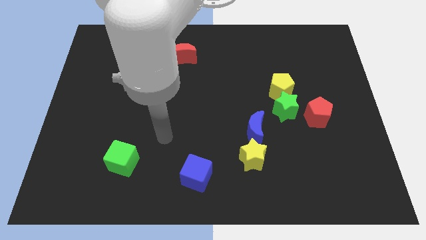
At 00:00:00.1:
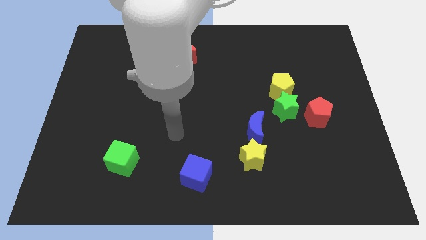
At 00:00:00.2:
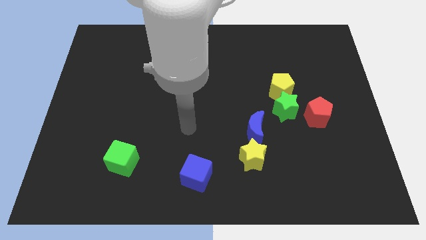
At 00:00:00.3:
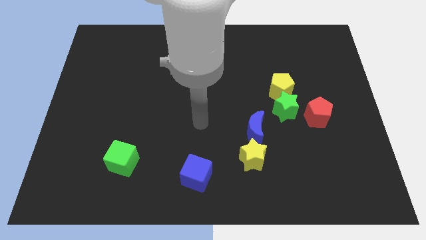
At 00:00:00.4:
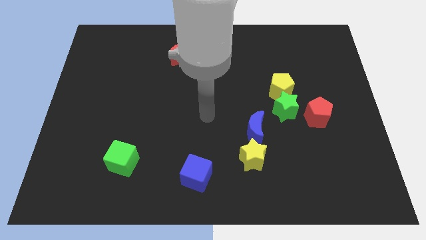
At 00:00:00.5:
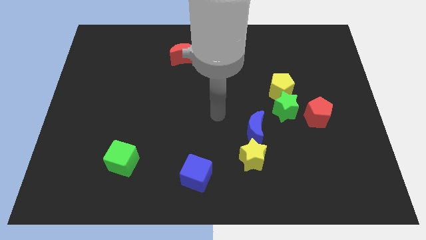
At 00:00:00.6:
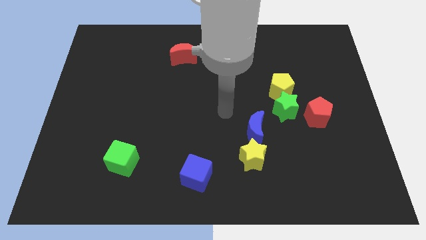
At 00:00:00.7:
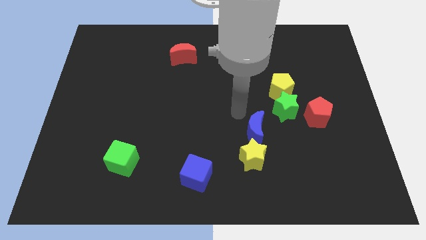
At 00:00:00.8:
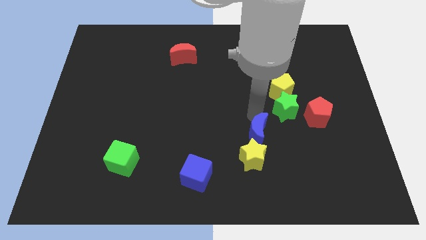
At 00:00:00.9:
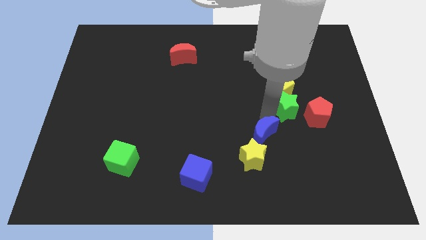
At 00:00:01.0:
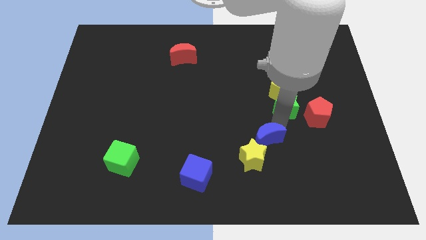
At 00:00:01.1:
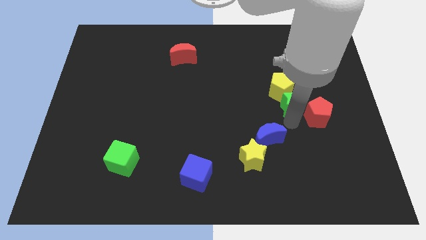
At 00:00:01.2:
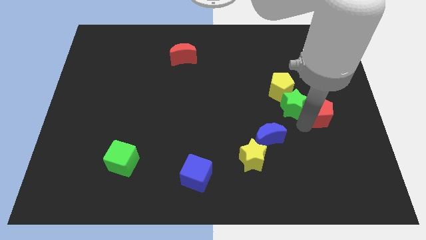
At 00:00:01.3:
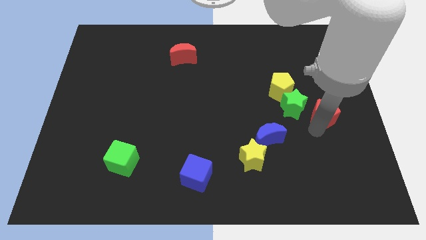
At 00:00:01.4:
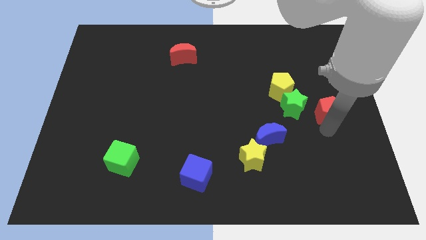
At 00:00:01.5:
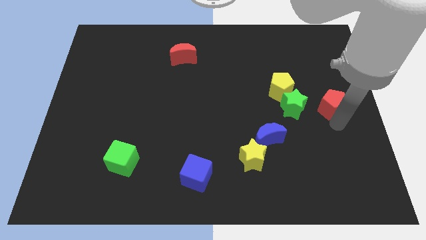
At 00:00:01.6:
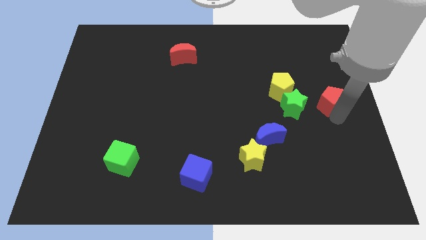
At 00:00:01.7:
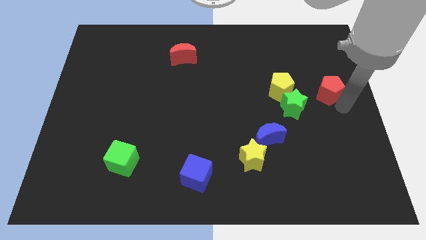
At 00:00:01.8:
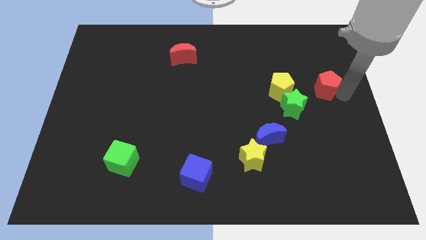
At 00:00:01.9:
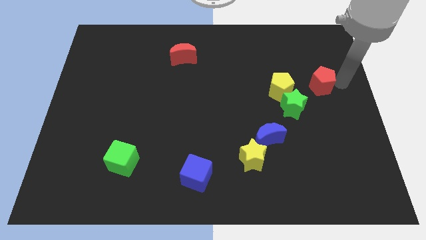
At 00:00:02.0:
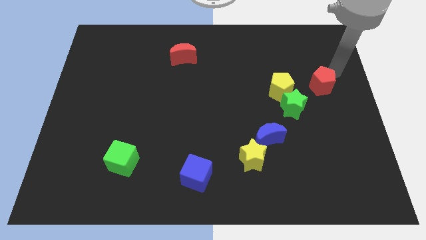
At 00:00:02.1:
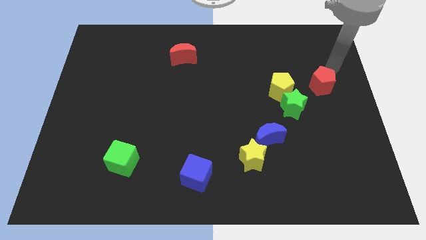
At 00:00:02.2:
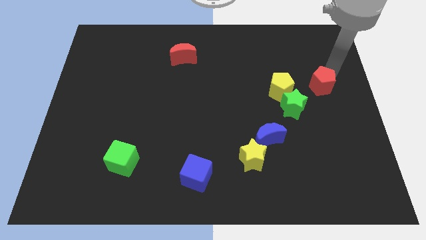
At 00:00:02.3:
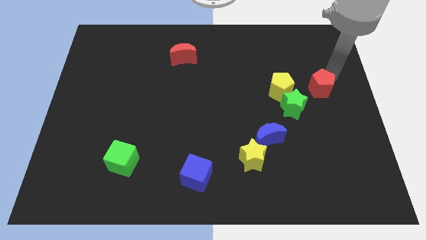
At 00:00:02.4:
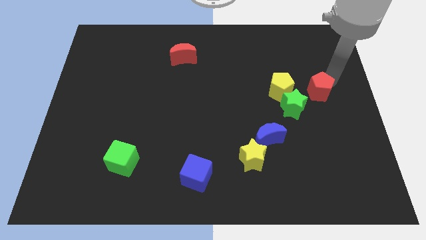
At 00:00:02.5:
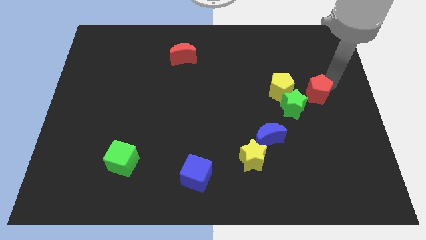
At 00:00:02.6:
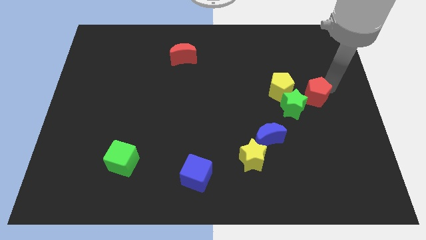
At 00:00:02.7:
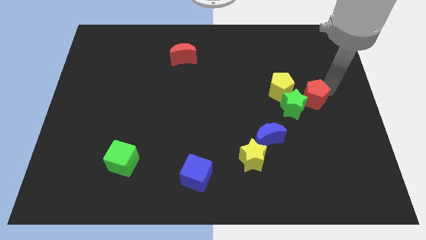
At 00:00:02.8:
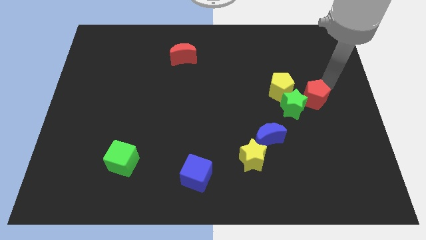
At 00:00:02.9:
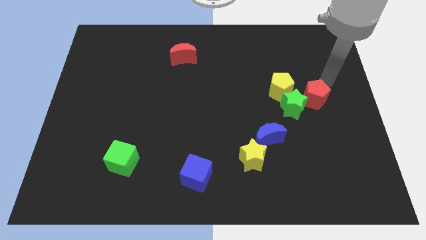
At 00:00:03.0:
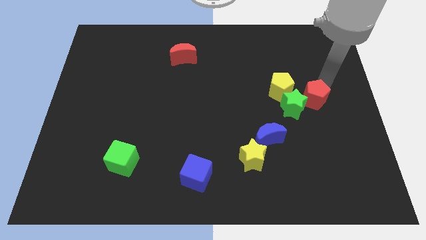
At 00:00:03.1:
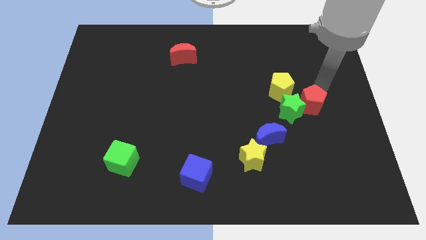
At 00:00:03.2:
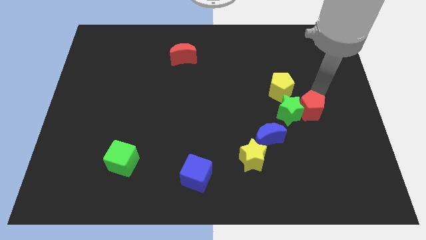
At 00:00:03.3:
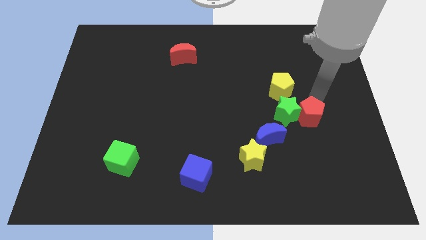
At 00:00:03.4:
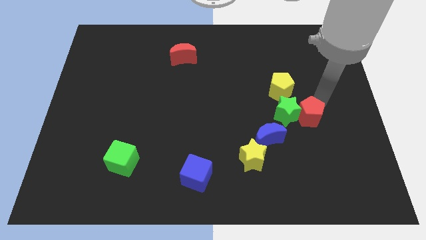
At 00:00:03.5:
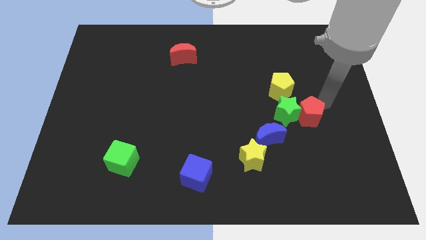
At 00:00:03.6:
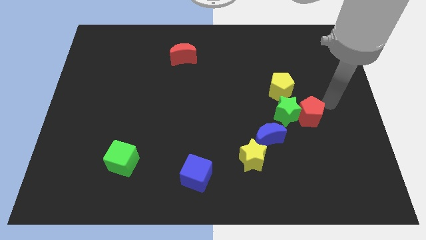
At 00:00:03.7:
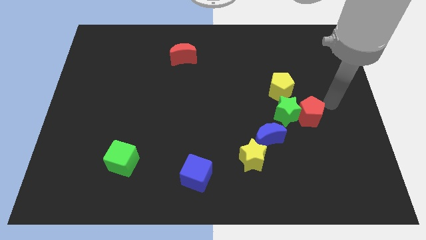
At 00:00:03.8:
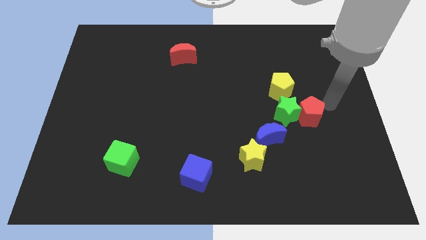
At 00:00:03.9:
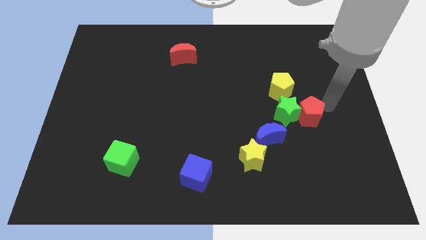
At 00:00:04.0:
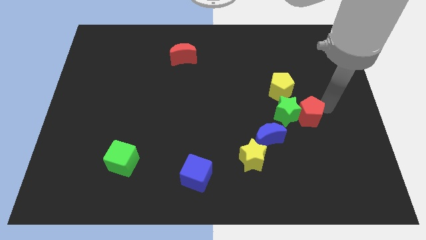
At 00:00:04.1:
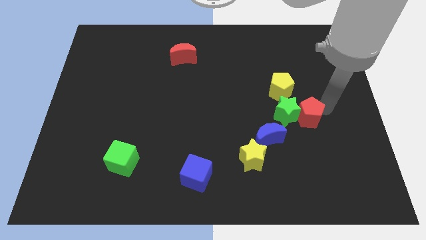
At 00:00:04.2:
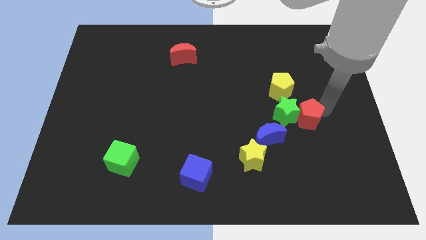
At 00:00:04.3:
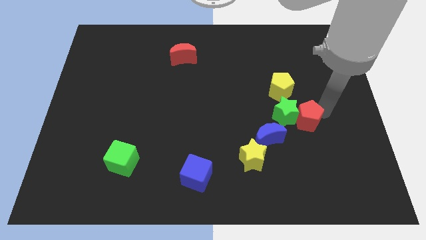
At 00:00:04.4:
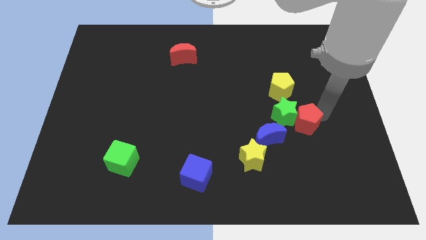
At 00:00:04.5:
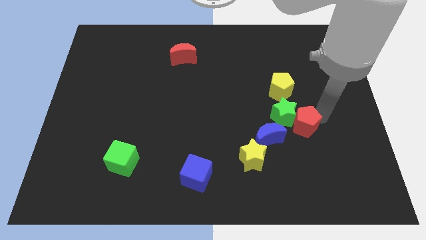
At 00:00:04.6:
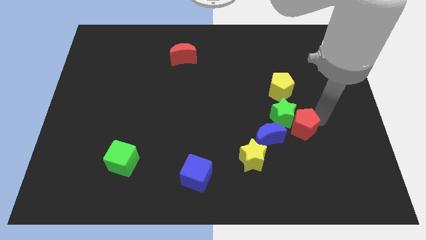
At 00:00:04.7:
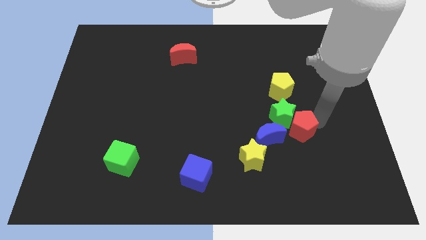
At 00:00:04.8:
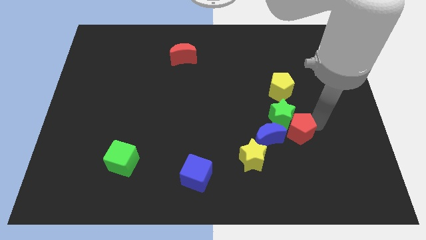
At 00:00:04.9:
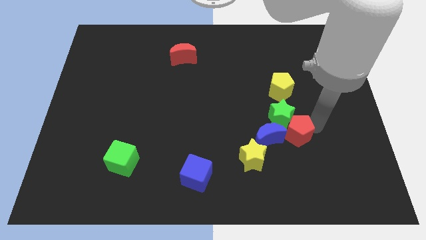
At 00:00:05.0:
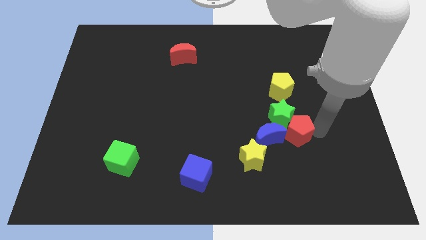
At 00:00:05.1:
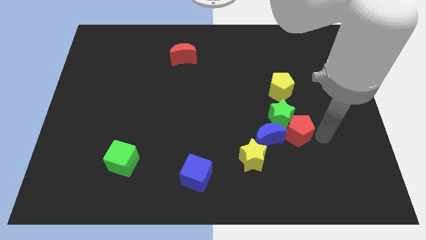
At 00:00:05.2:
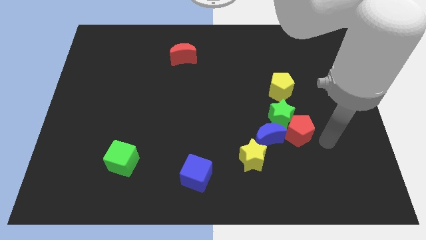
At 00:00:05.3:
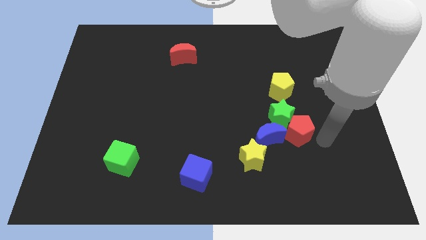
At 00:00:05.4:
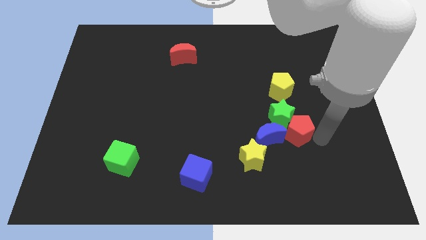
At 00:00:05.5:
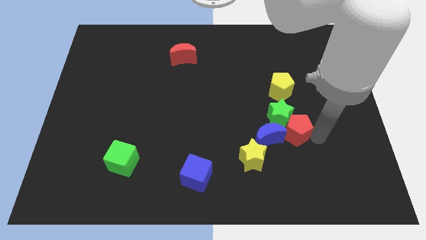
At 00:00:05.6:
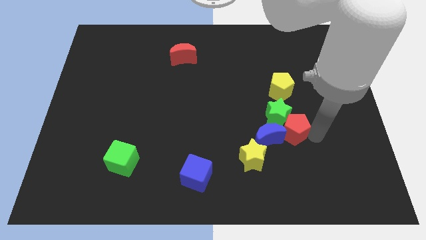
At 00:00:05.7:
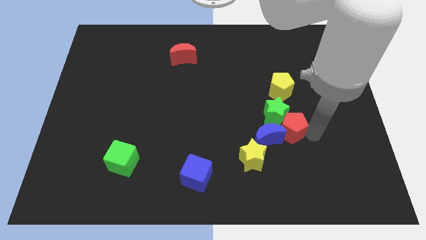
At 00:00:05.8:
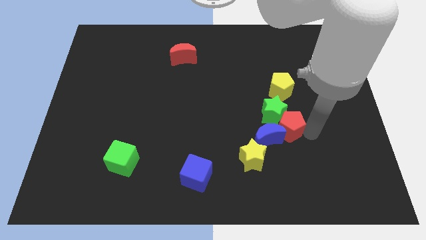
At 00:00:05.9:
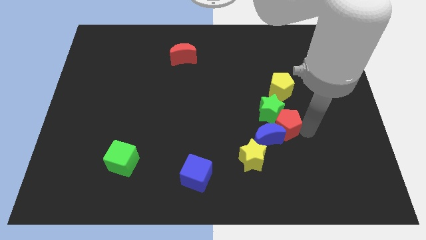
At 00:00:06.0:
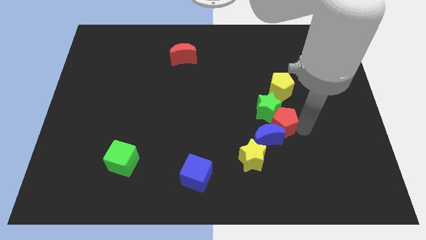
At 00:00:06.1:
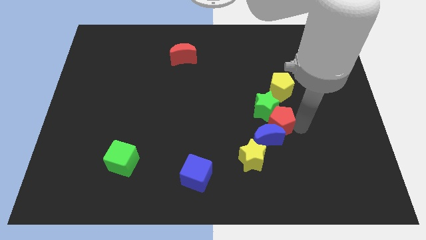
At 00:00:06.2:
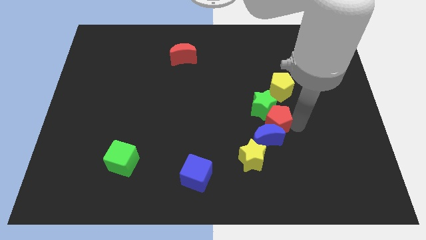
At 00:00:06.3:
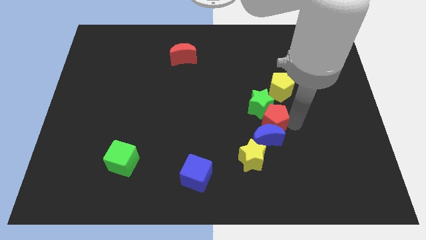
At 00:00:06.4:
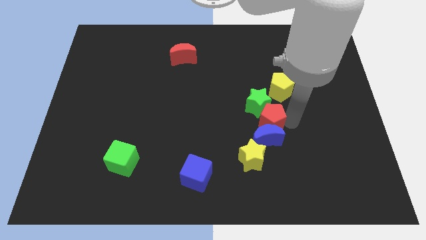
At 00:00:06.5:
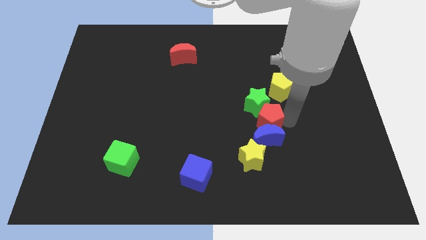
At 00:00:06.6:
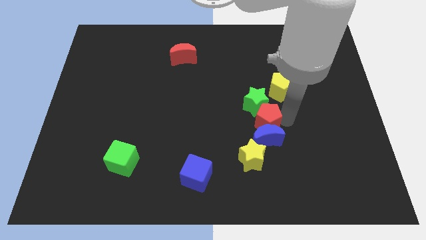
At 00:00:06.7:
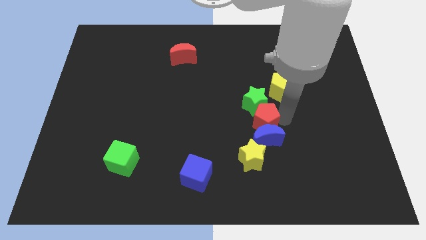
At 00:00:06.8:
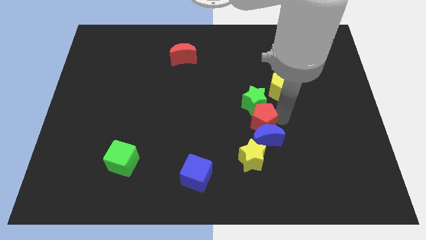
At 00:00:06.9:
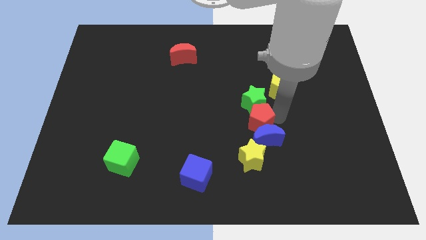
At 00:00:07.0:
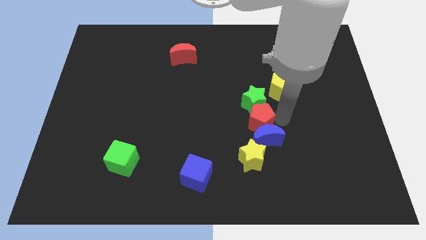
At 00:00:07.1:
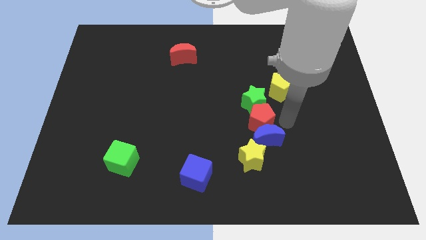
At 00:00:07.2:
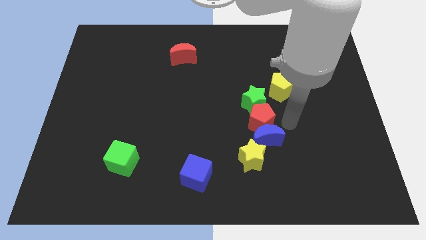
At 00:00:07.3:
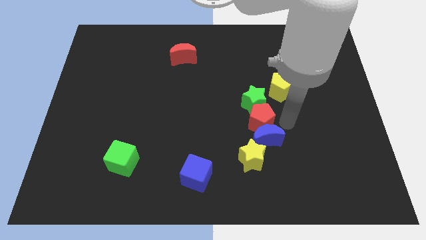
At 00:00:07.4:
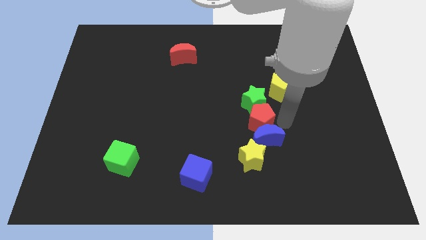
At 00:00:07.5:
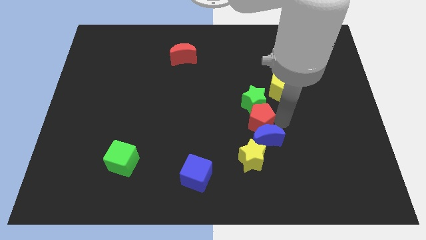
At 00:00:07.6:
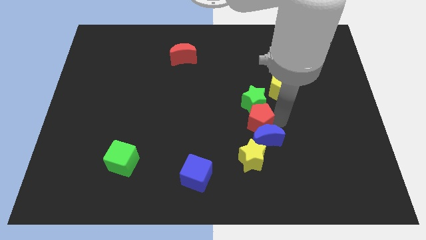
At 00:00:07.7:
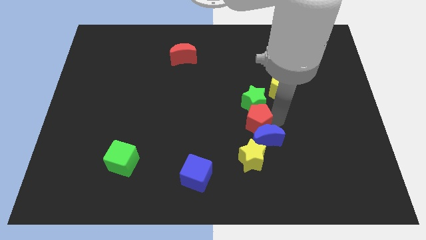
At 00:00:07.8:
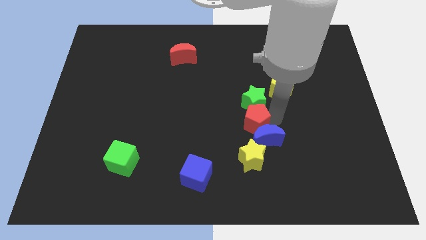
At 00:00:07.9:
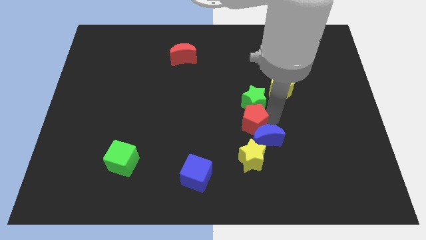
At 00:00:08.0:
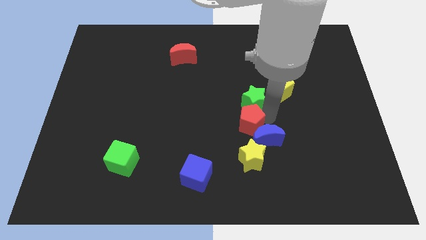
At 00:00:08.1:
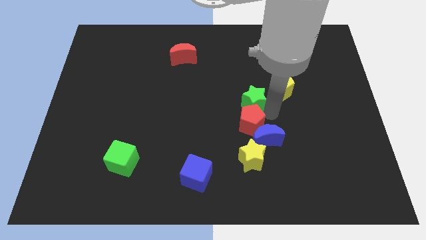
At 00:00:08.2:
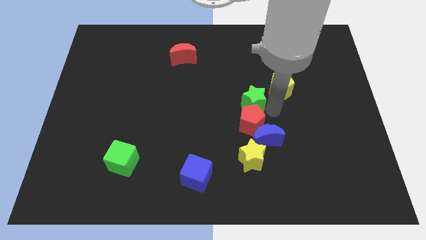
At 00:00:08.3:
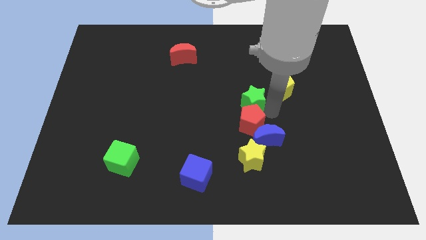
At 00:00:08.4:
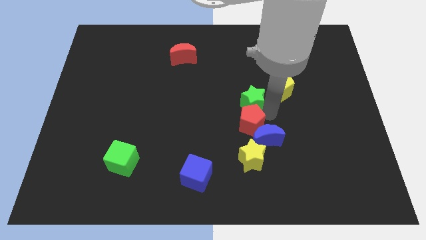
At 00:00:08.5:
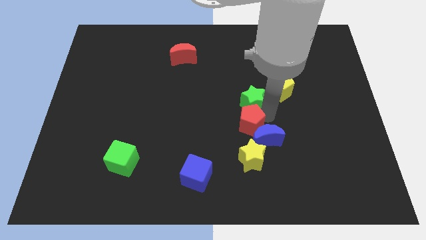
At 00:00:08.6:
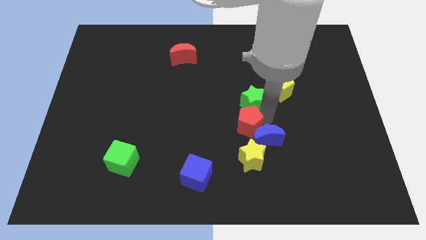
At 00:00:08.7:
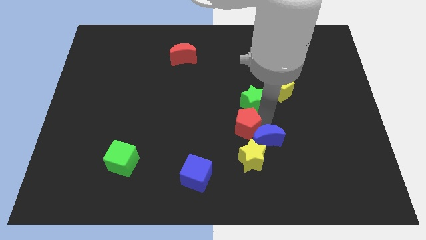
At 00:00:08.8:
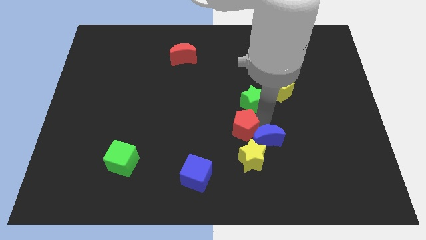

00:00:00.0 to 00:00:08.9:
put the red pentagon to the top left side of the yellow star
